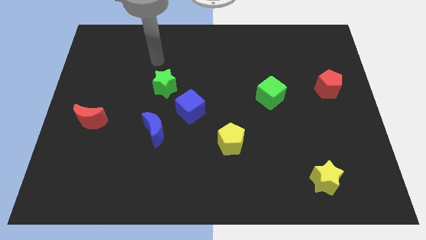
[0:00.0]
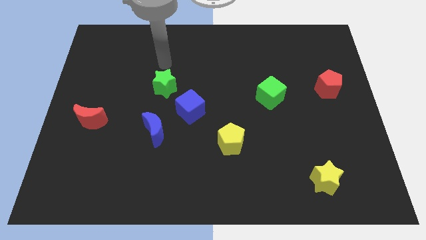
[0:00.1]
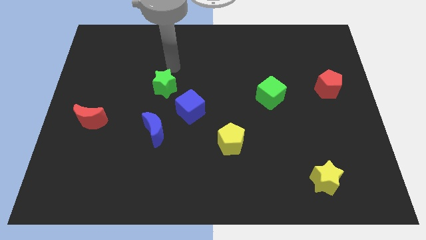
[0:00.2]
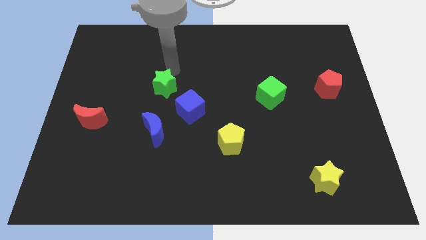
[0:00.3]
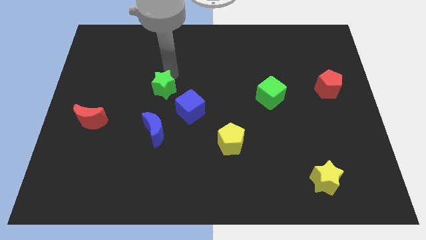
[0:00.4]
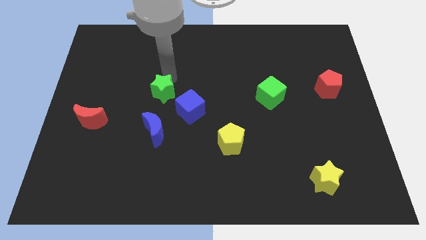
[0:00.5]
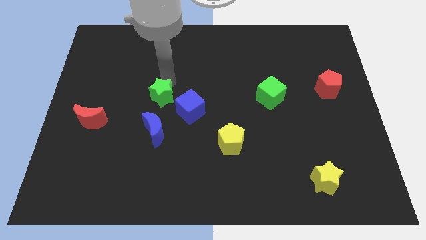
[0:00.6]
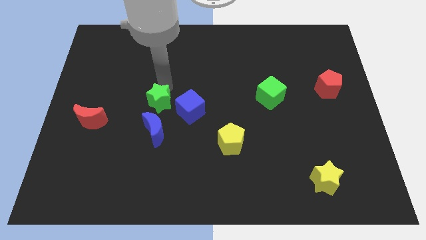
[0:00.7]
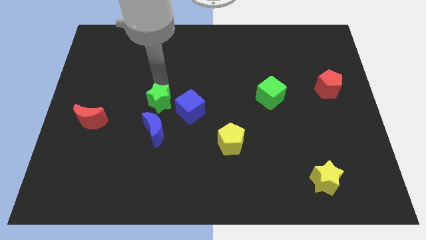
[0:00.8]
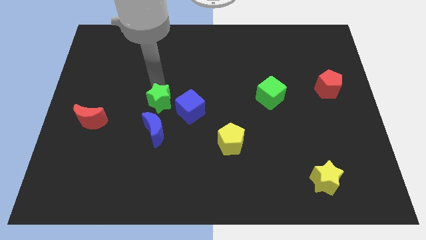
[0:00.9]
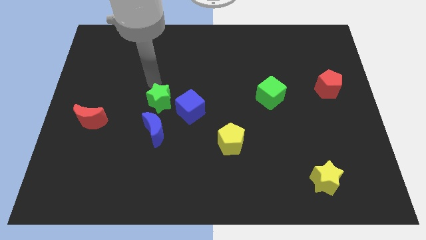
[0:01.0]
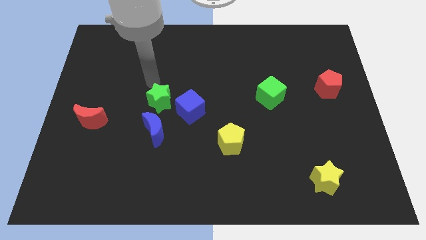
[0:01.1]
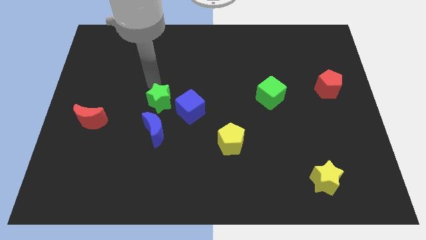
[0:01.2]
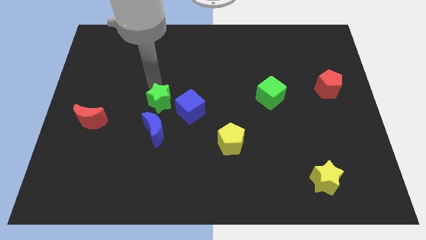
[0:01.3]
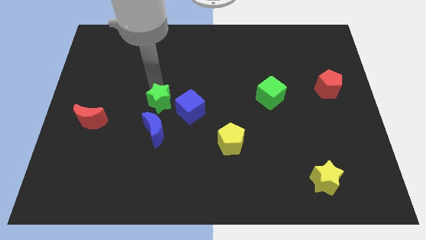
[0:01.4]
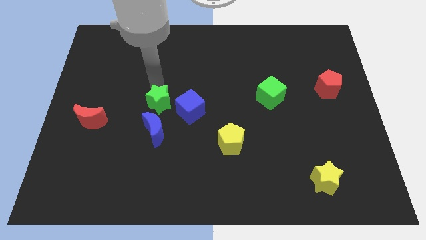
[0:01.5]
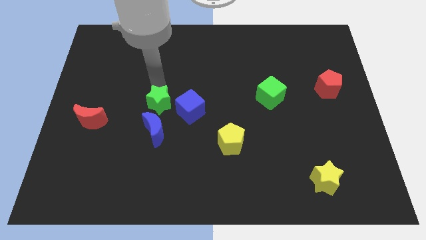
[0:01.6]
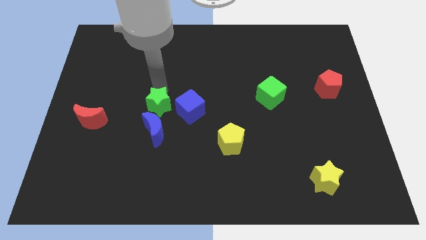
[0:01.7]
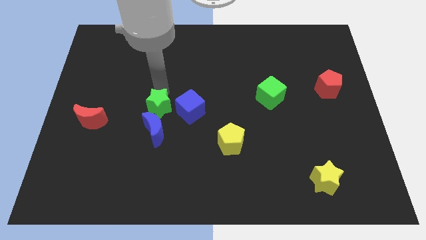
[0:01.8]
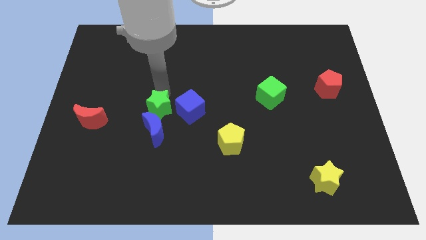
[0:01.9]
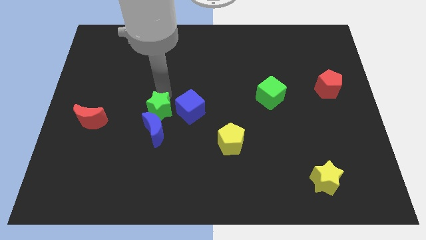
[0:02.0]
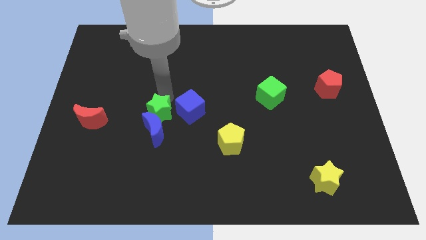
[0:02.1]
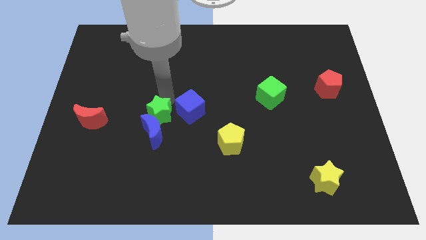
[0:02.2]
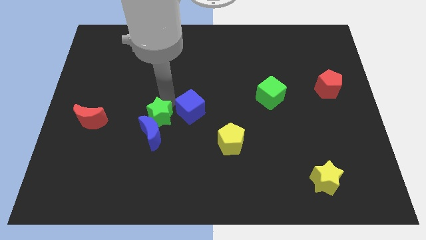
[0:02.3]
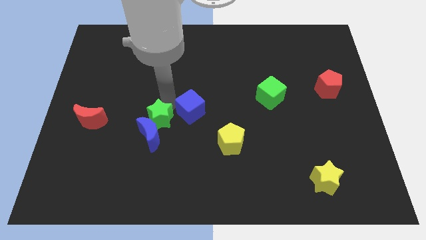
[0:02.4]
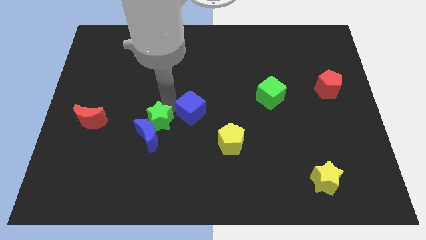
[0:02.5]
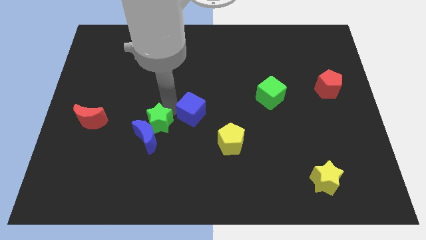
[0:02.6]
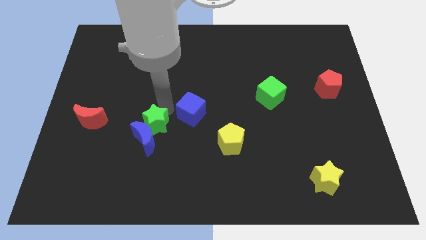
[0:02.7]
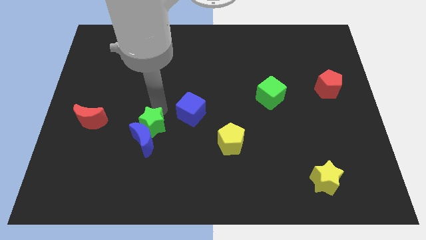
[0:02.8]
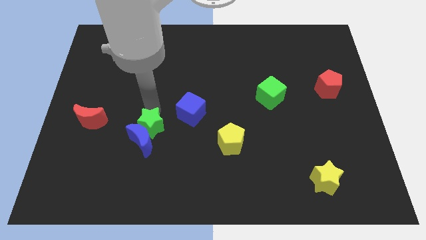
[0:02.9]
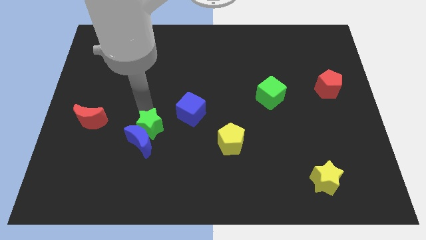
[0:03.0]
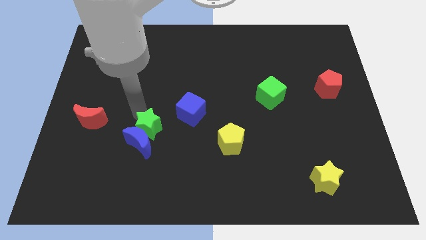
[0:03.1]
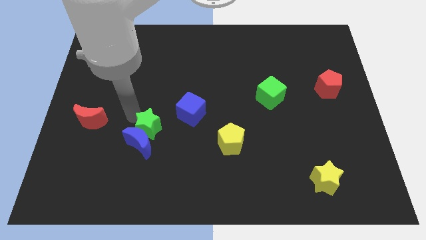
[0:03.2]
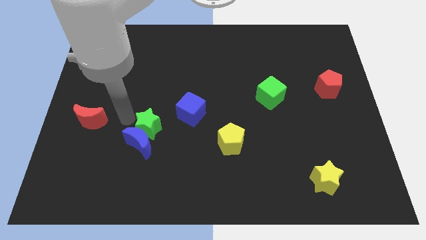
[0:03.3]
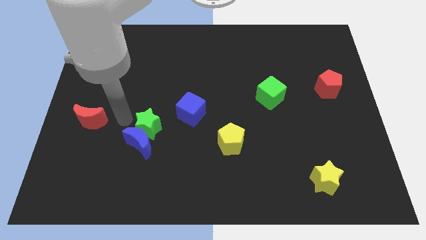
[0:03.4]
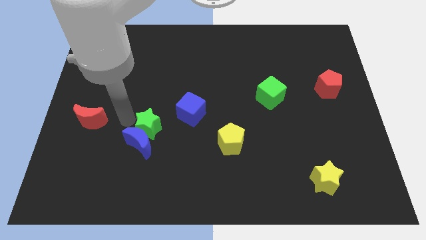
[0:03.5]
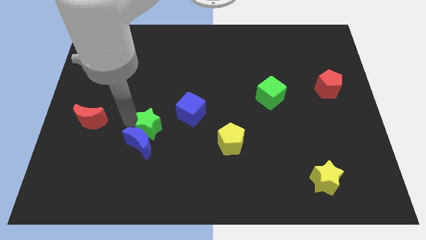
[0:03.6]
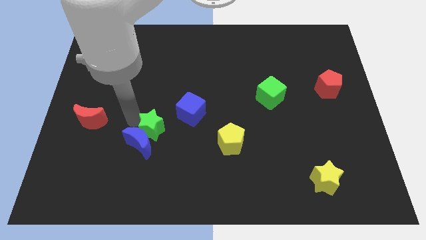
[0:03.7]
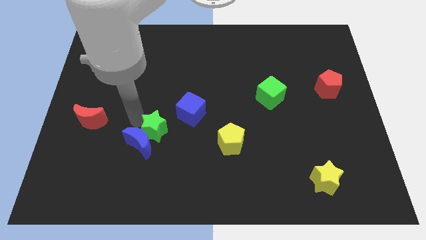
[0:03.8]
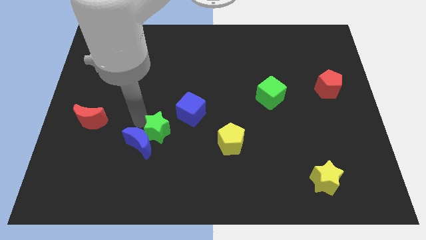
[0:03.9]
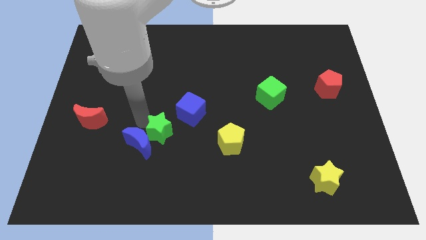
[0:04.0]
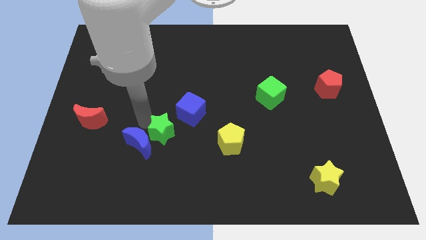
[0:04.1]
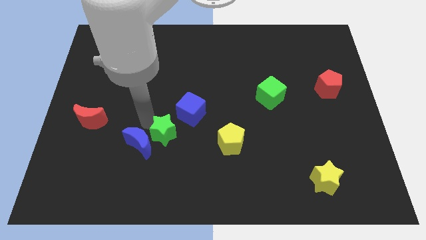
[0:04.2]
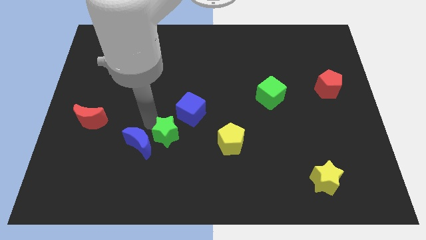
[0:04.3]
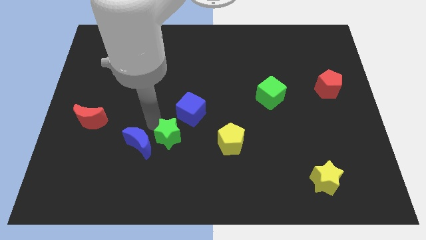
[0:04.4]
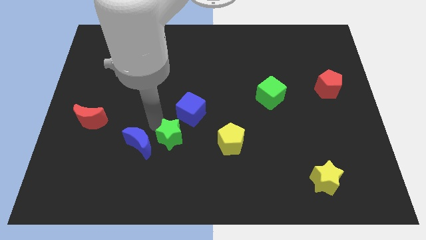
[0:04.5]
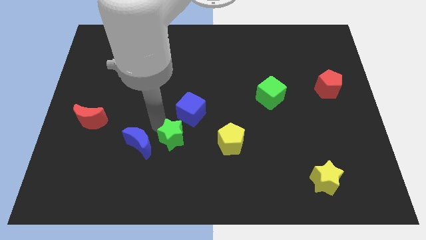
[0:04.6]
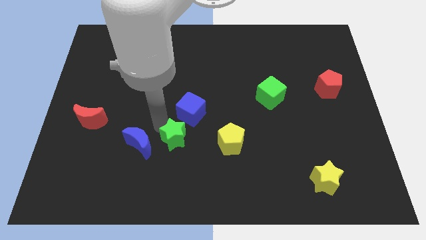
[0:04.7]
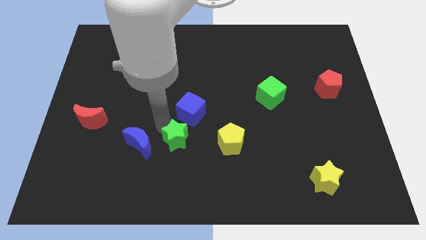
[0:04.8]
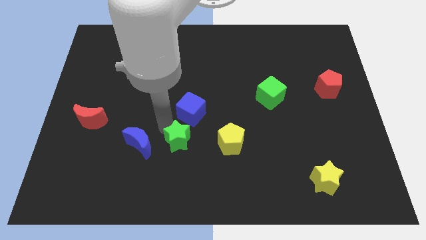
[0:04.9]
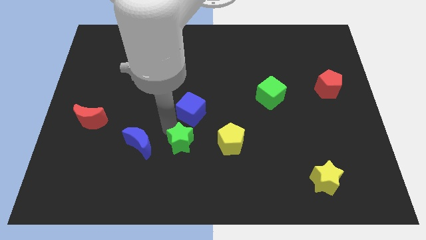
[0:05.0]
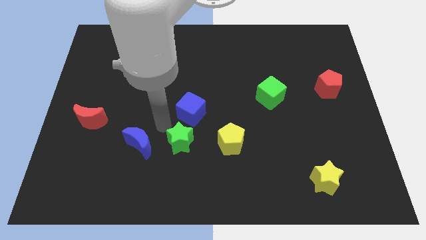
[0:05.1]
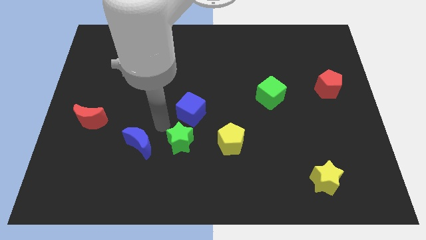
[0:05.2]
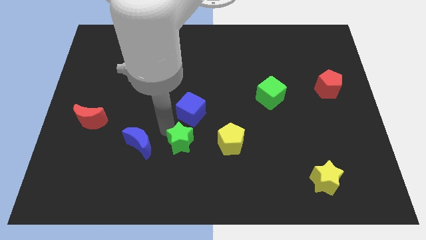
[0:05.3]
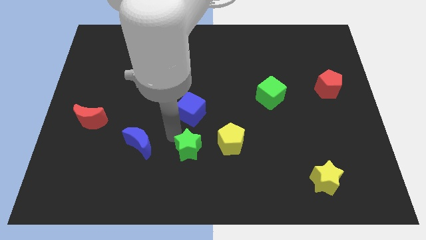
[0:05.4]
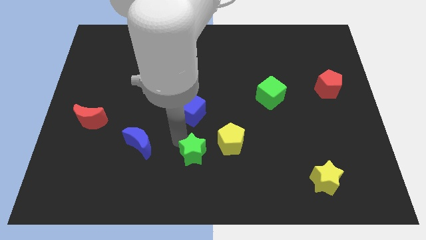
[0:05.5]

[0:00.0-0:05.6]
push the green star to the bottom left of the yellow pentagon

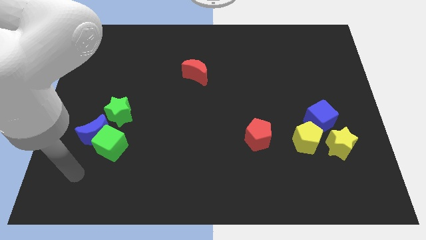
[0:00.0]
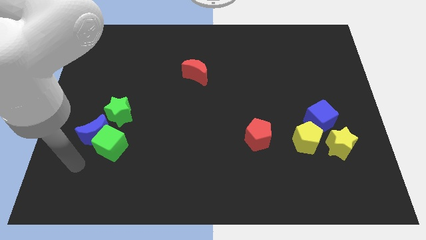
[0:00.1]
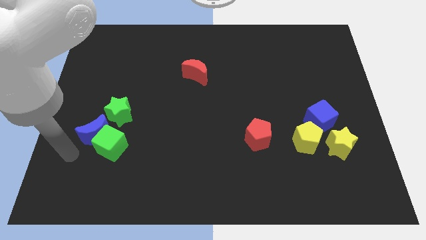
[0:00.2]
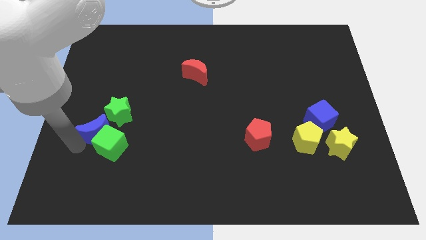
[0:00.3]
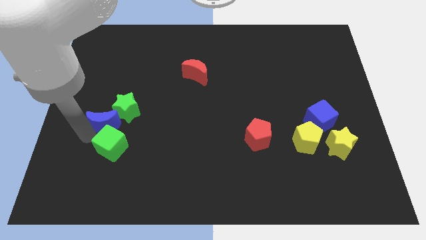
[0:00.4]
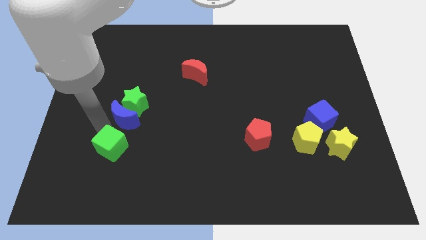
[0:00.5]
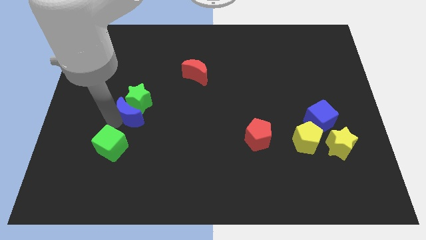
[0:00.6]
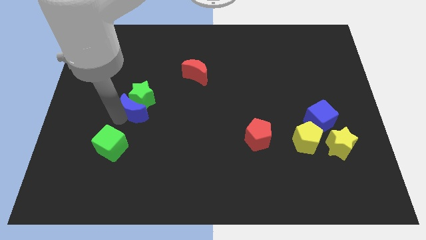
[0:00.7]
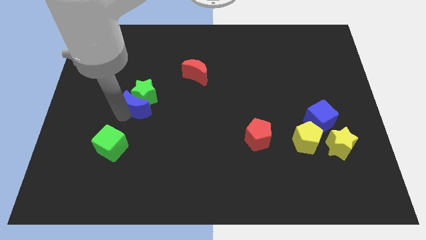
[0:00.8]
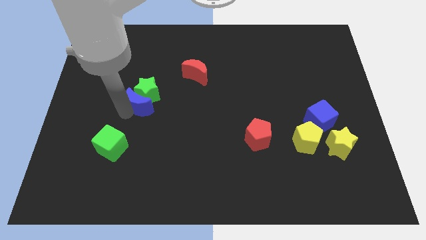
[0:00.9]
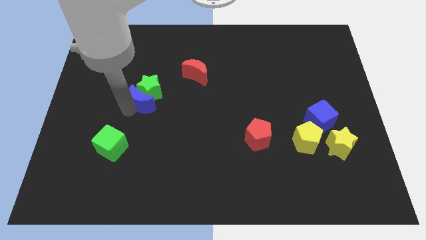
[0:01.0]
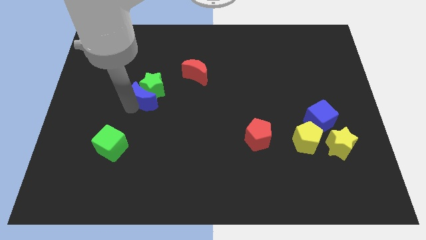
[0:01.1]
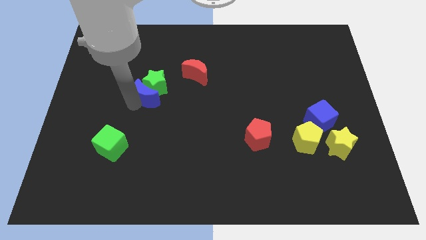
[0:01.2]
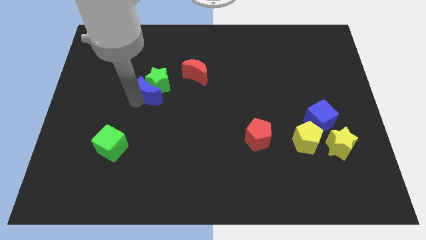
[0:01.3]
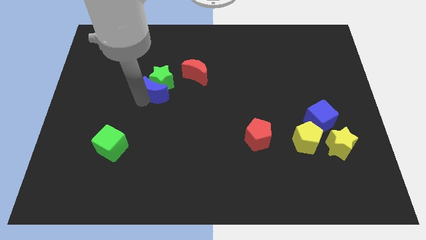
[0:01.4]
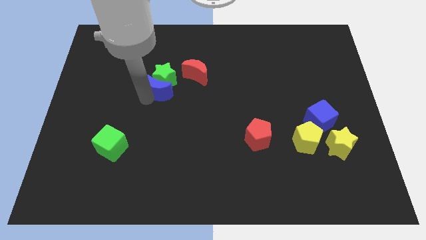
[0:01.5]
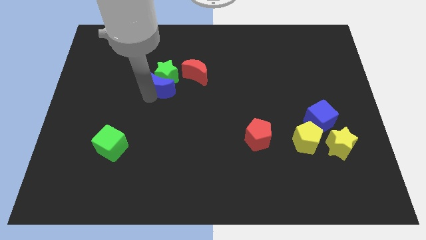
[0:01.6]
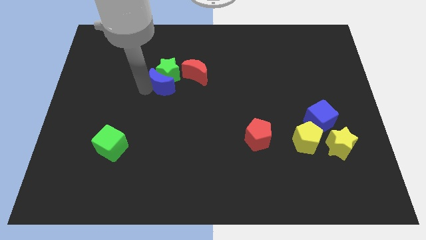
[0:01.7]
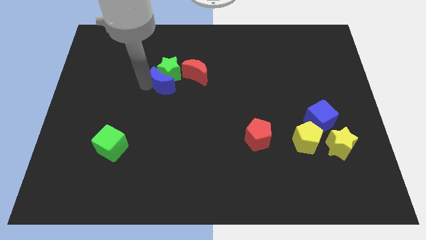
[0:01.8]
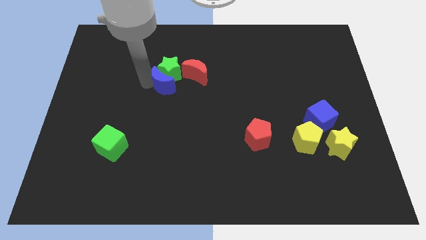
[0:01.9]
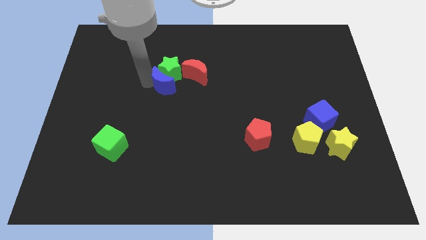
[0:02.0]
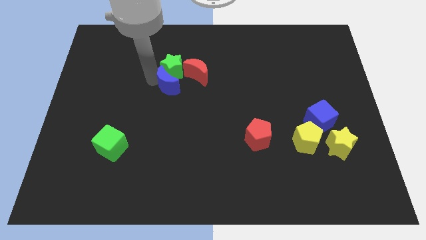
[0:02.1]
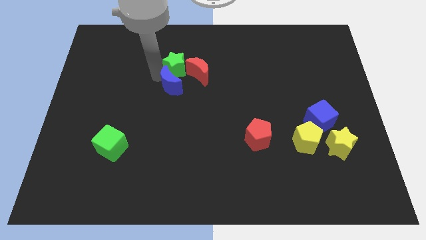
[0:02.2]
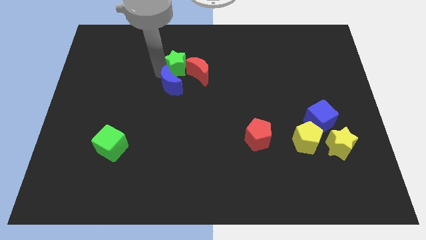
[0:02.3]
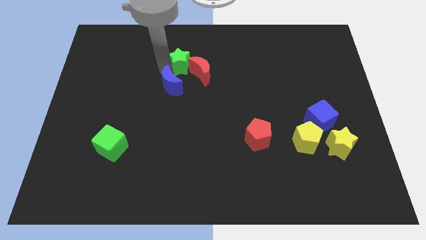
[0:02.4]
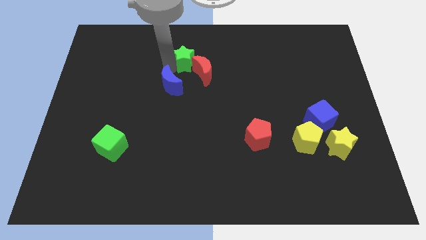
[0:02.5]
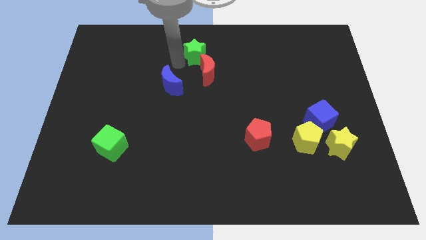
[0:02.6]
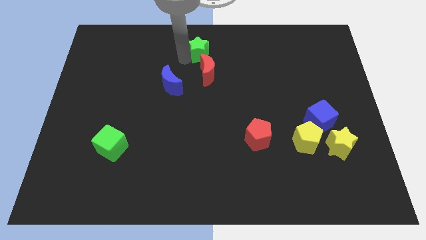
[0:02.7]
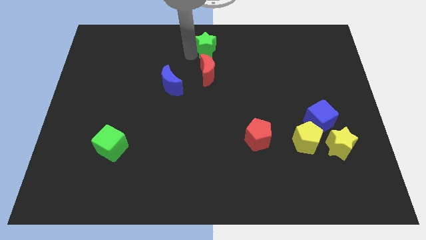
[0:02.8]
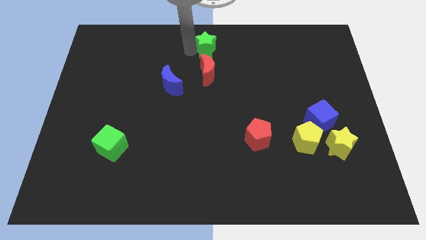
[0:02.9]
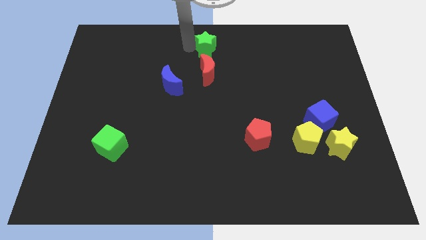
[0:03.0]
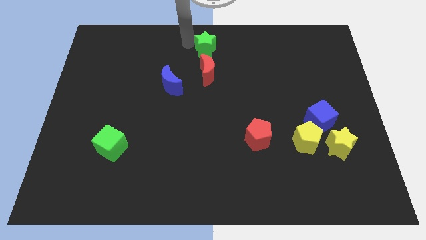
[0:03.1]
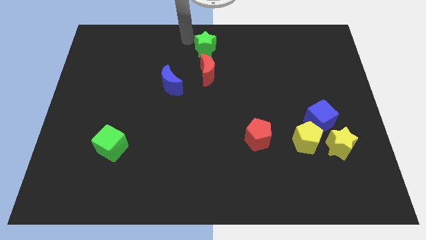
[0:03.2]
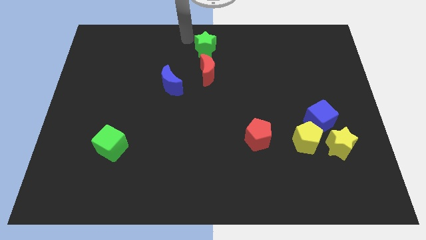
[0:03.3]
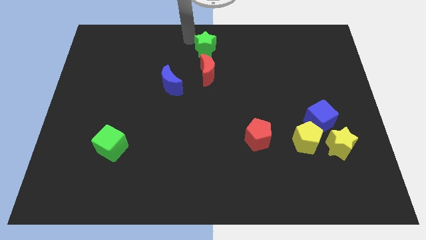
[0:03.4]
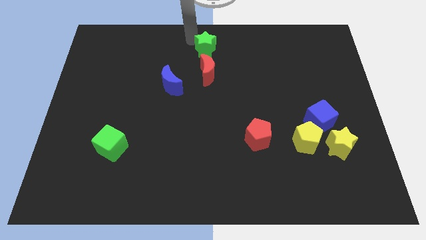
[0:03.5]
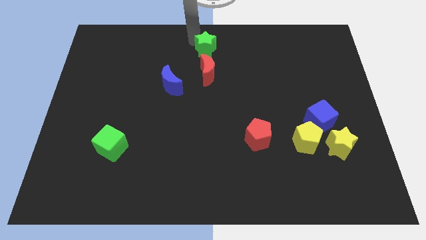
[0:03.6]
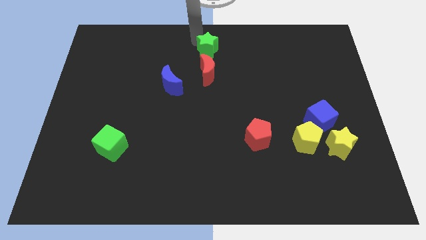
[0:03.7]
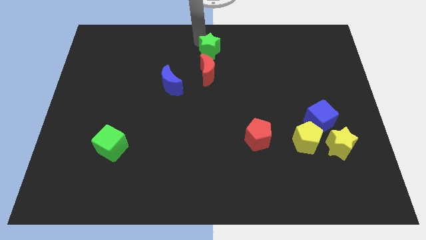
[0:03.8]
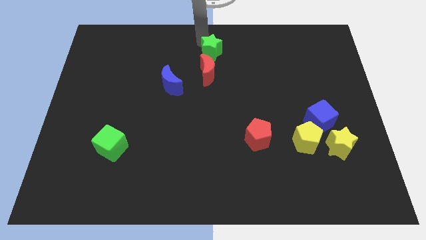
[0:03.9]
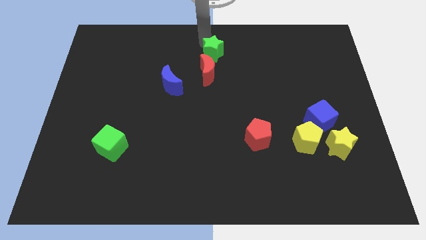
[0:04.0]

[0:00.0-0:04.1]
push the green star diagonally up and to the right of the red moon
